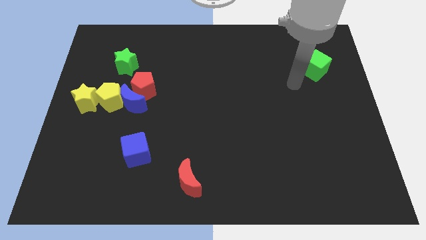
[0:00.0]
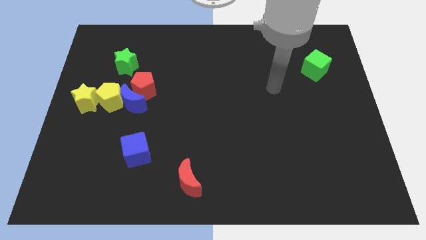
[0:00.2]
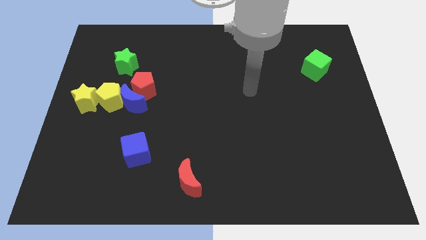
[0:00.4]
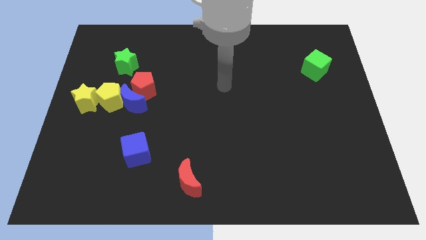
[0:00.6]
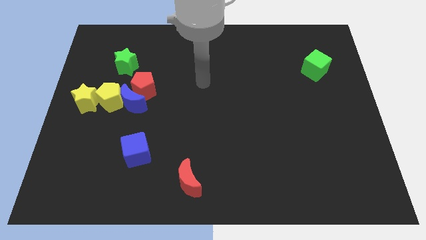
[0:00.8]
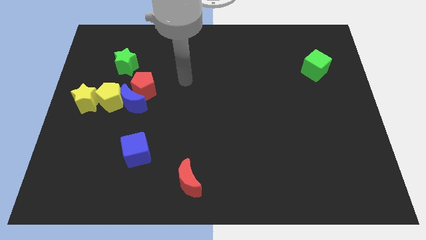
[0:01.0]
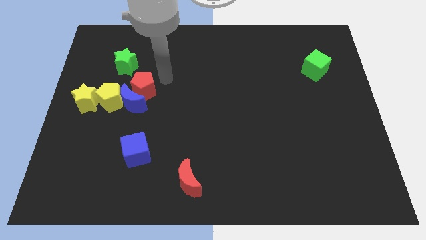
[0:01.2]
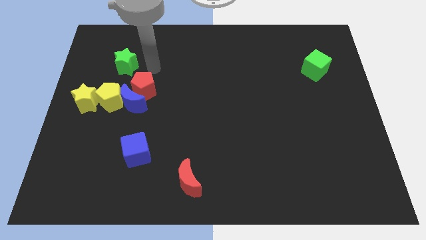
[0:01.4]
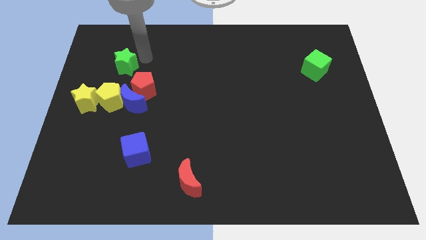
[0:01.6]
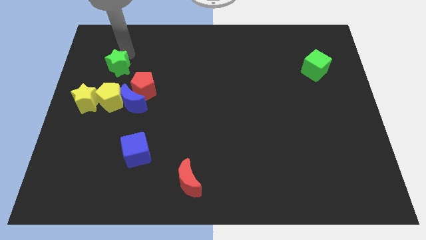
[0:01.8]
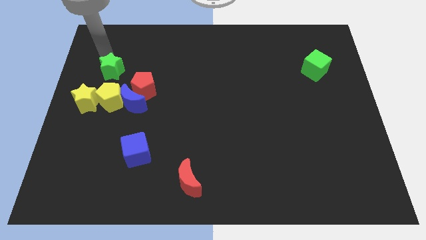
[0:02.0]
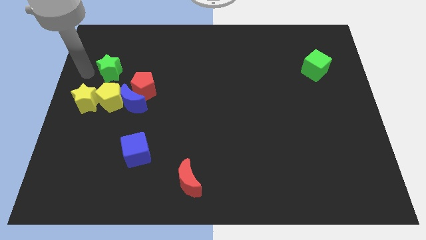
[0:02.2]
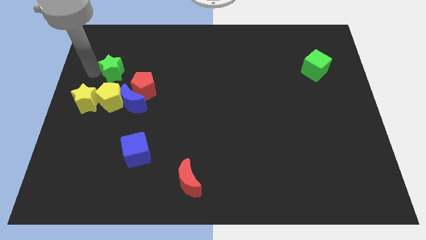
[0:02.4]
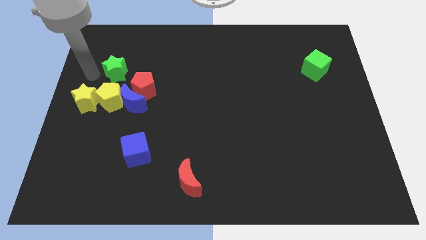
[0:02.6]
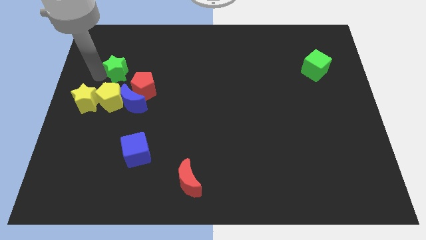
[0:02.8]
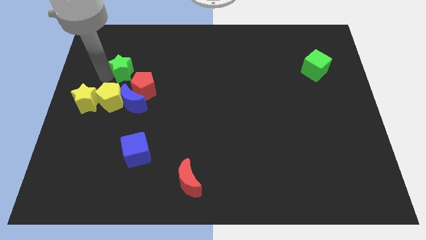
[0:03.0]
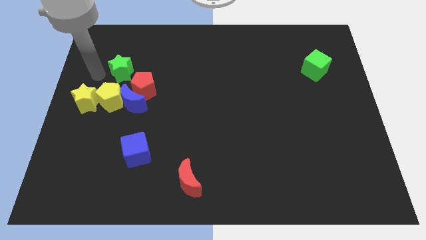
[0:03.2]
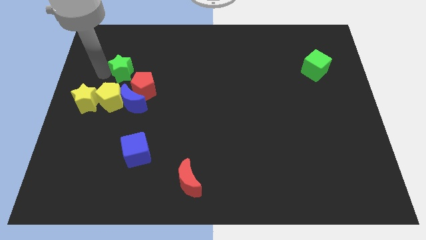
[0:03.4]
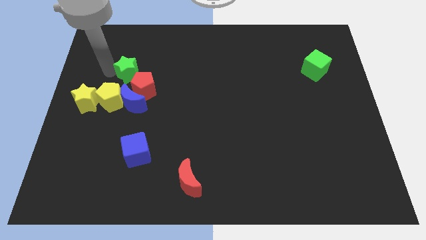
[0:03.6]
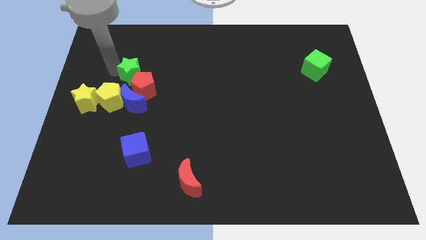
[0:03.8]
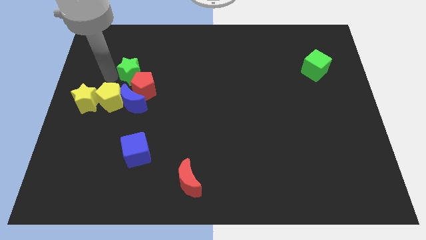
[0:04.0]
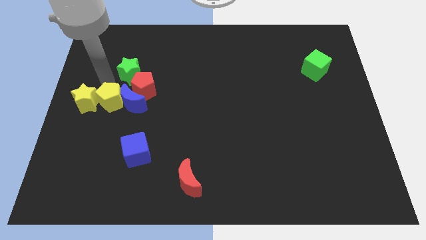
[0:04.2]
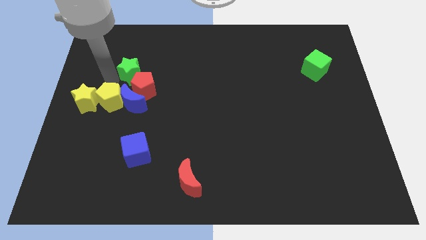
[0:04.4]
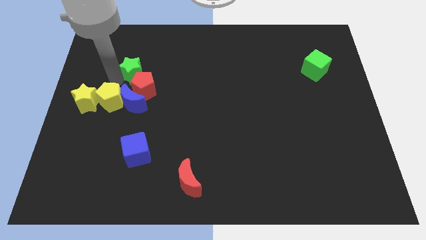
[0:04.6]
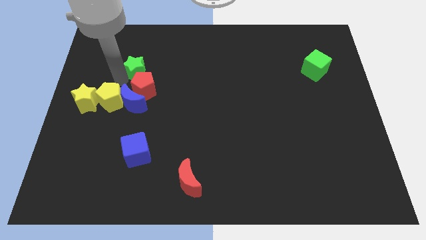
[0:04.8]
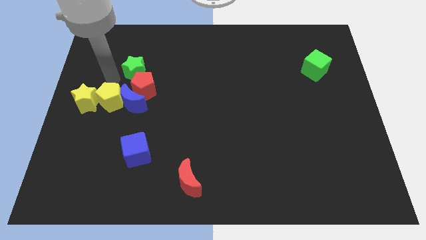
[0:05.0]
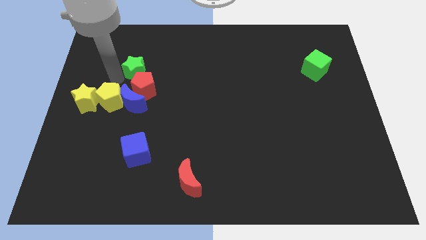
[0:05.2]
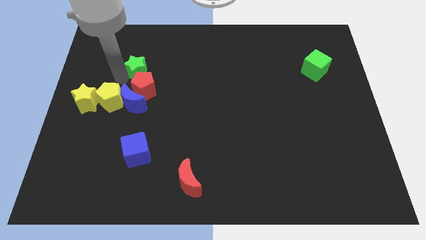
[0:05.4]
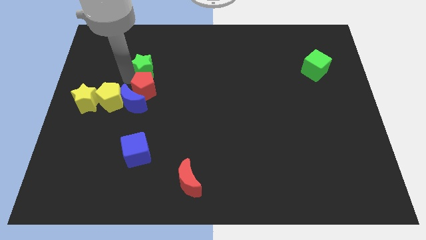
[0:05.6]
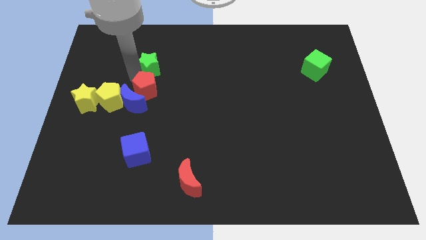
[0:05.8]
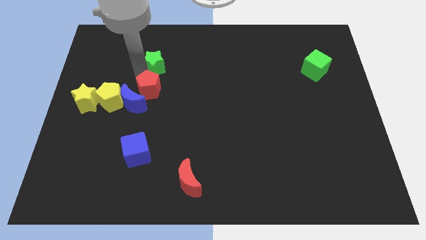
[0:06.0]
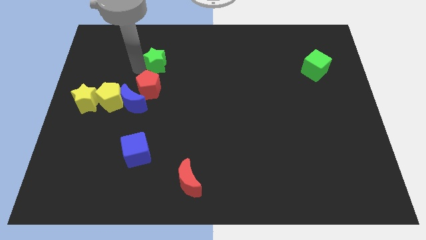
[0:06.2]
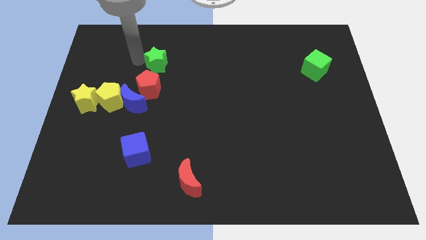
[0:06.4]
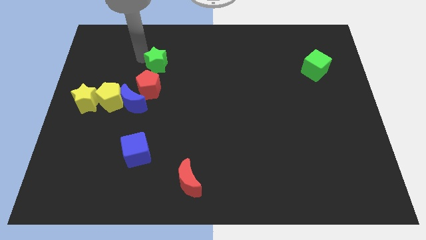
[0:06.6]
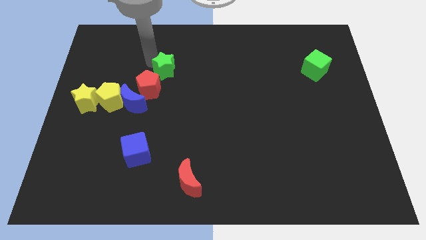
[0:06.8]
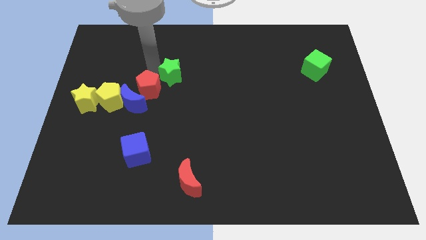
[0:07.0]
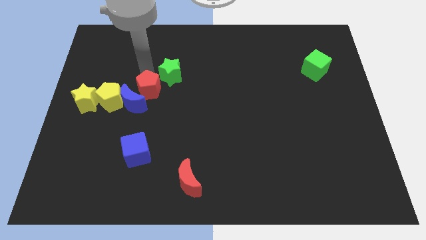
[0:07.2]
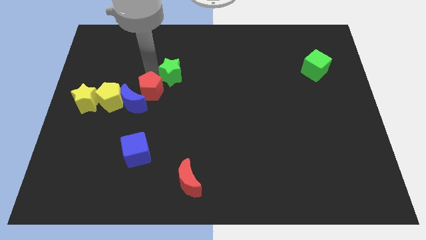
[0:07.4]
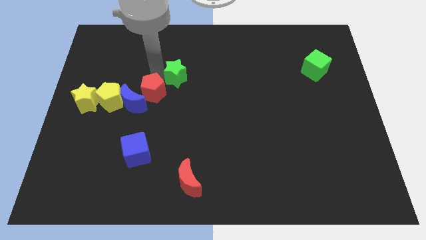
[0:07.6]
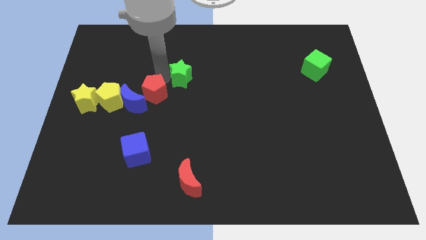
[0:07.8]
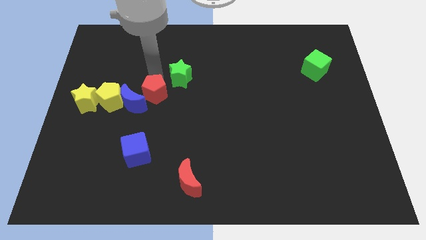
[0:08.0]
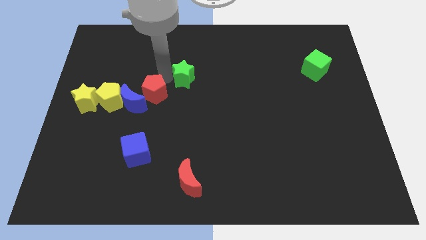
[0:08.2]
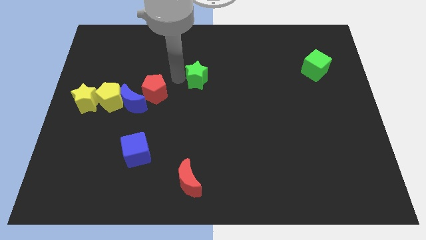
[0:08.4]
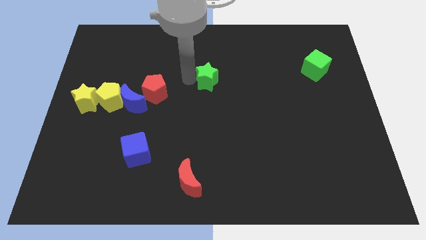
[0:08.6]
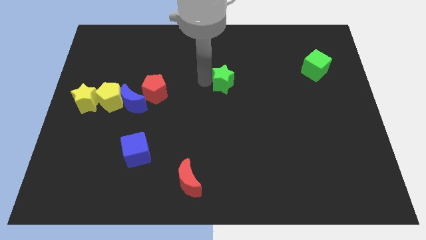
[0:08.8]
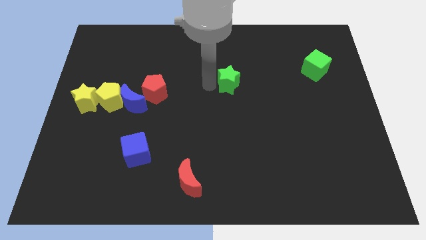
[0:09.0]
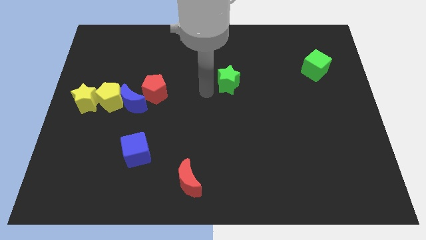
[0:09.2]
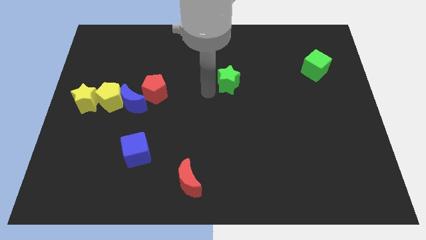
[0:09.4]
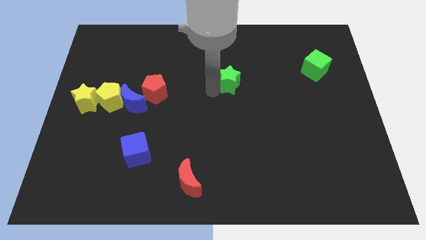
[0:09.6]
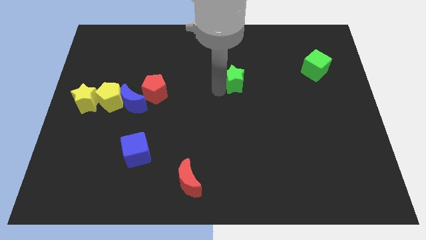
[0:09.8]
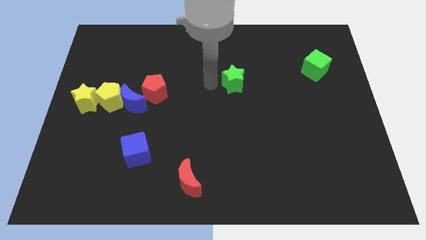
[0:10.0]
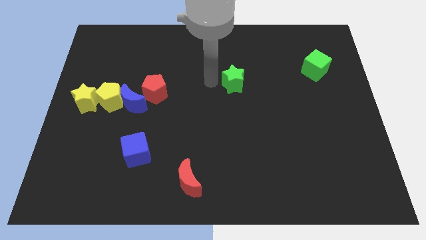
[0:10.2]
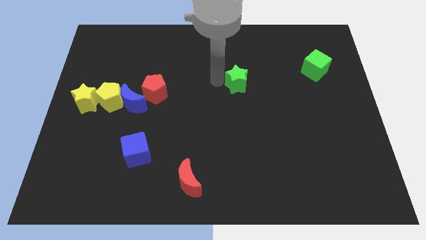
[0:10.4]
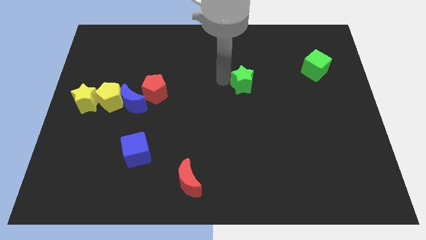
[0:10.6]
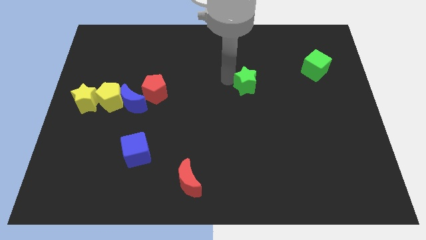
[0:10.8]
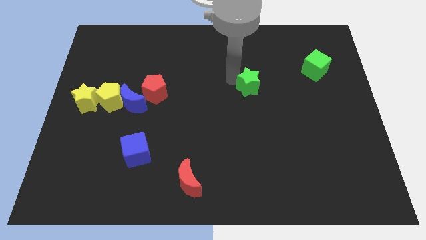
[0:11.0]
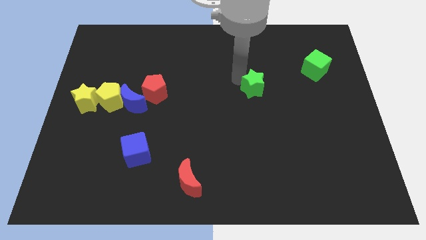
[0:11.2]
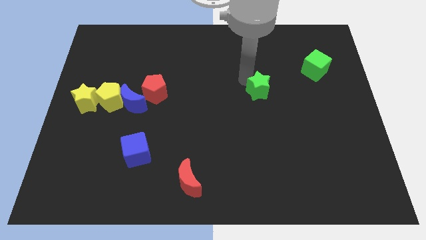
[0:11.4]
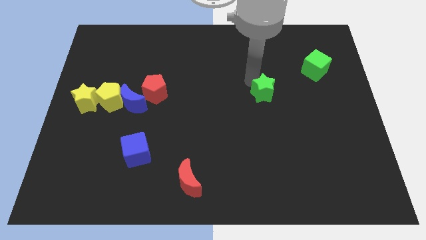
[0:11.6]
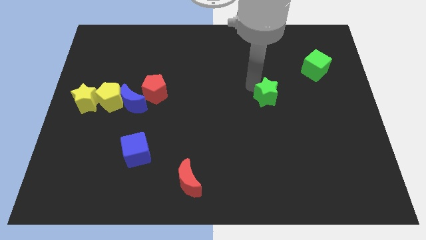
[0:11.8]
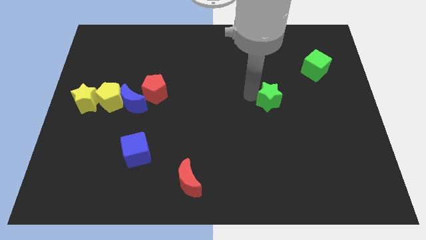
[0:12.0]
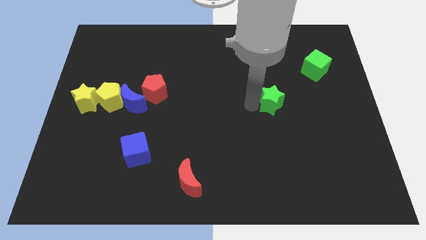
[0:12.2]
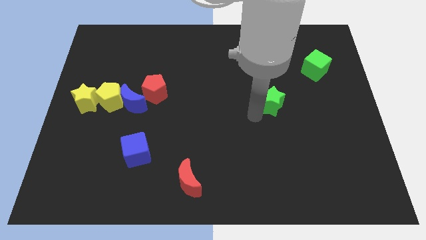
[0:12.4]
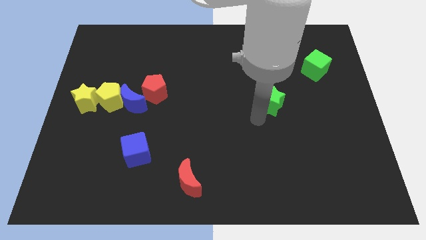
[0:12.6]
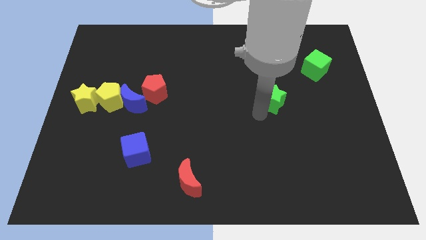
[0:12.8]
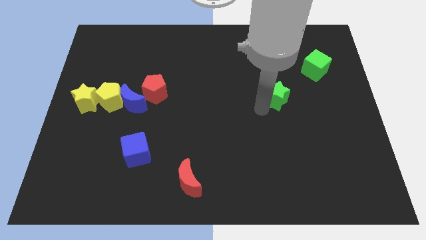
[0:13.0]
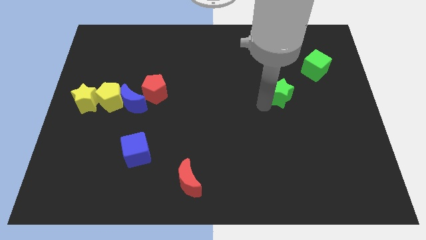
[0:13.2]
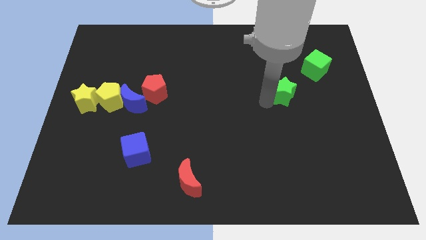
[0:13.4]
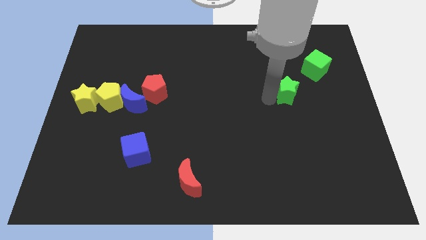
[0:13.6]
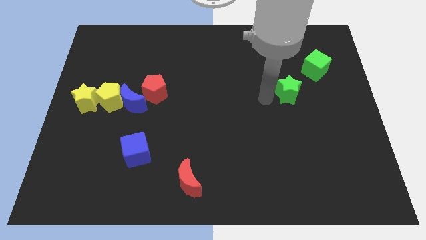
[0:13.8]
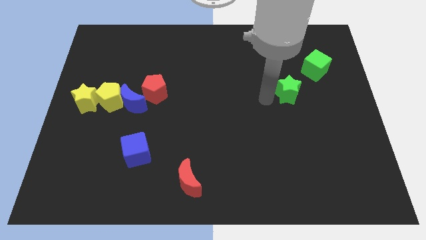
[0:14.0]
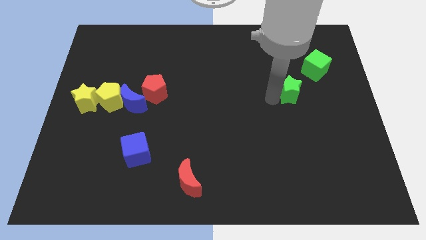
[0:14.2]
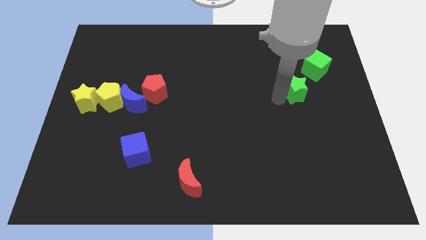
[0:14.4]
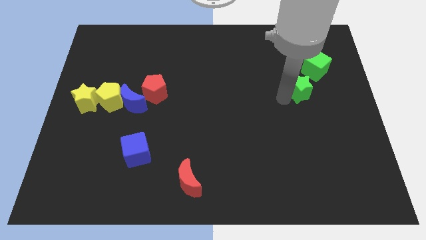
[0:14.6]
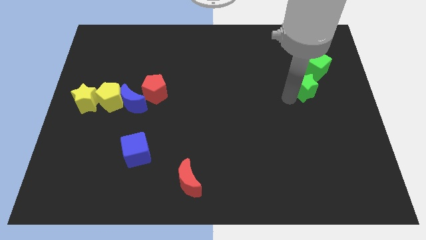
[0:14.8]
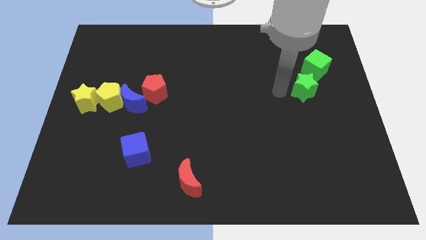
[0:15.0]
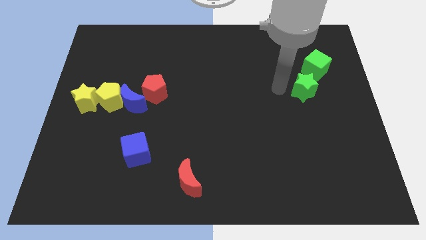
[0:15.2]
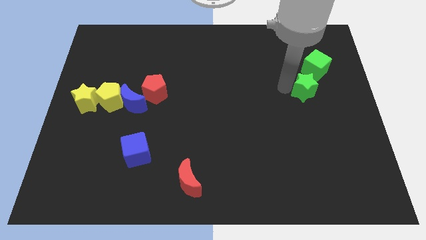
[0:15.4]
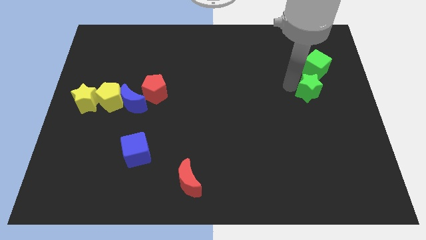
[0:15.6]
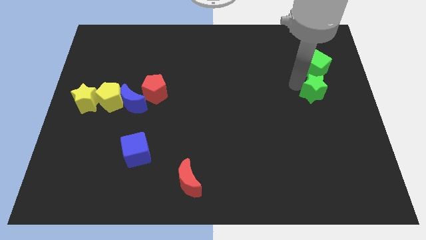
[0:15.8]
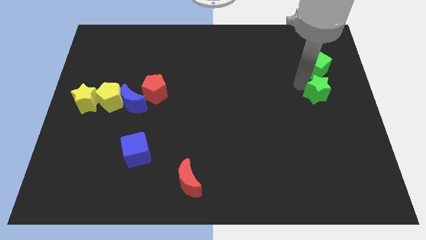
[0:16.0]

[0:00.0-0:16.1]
move the green star to the right side
